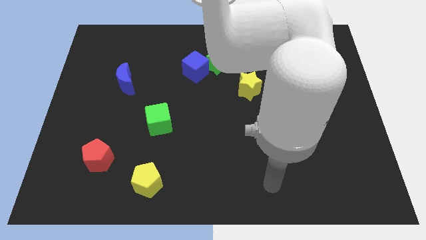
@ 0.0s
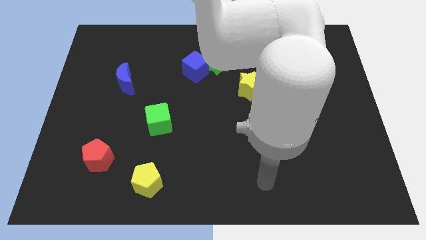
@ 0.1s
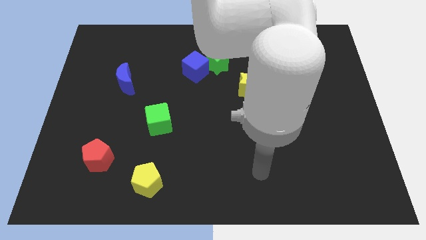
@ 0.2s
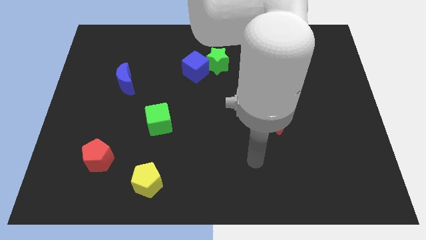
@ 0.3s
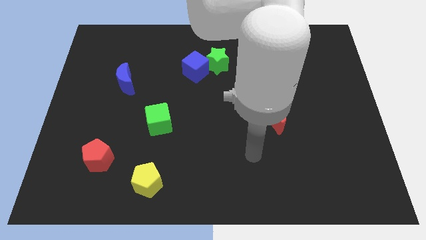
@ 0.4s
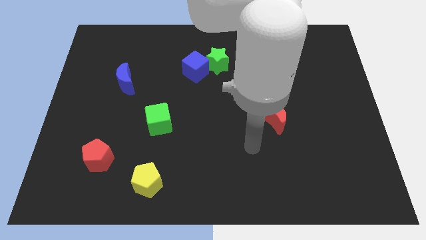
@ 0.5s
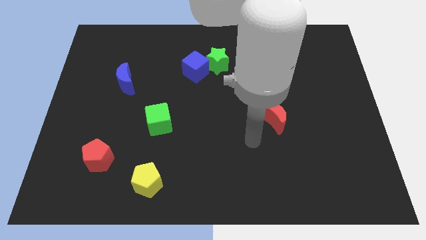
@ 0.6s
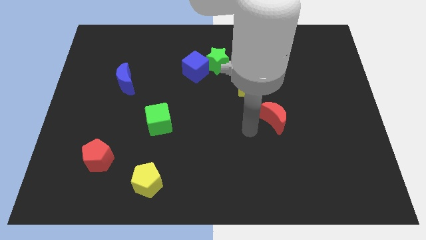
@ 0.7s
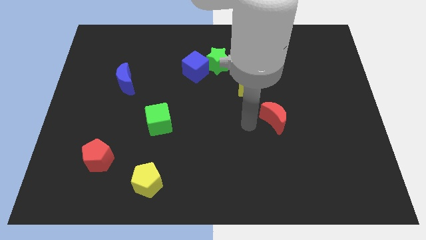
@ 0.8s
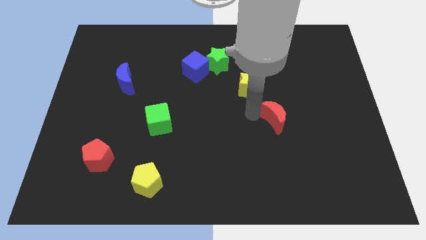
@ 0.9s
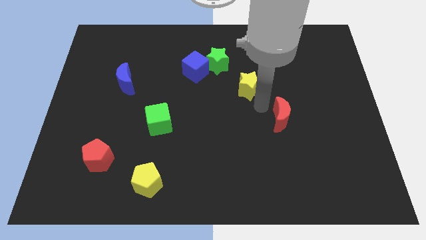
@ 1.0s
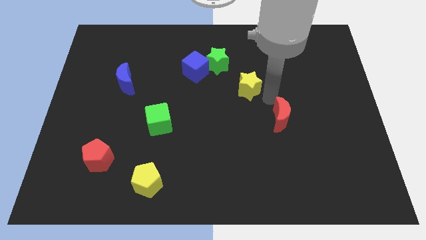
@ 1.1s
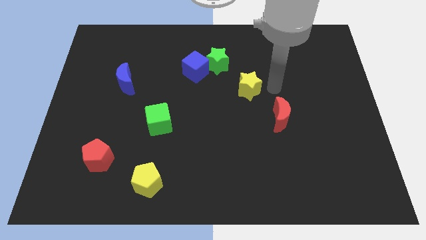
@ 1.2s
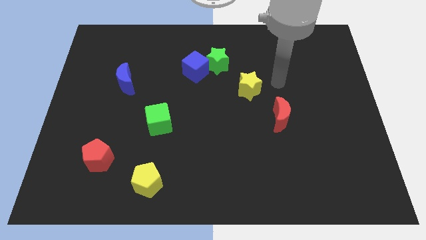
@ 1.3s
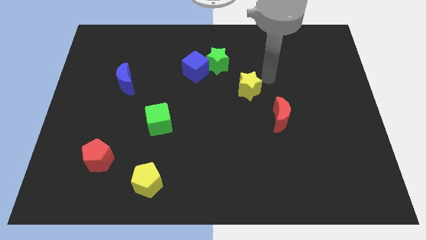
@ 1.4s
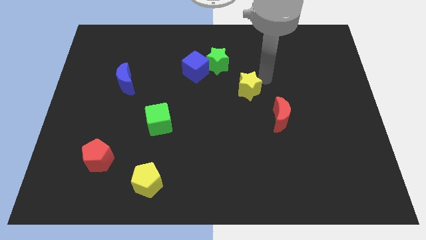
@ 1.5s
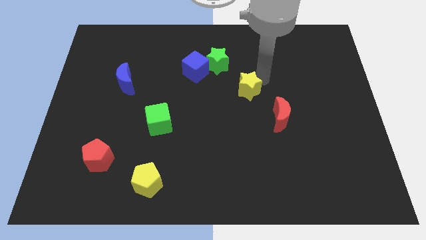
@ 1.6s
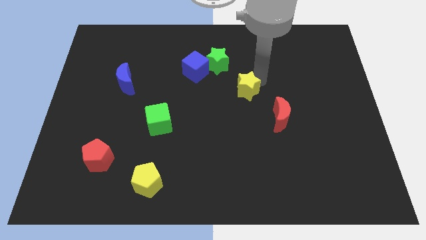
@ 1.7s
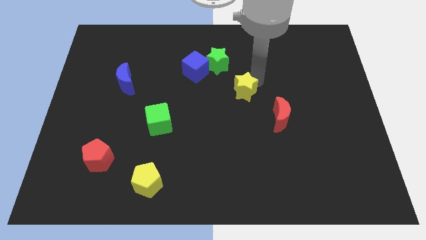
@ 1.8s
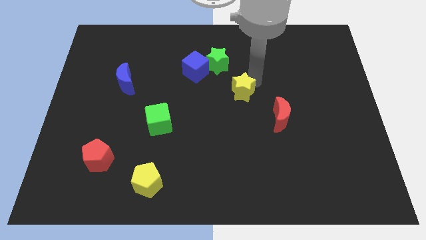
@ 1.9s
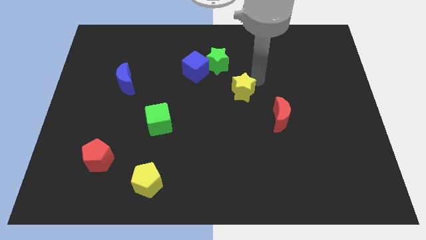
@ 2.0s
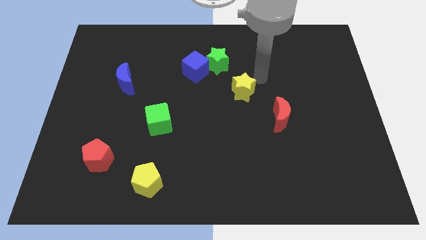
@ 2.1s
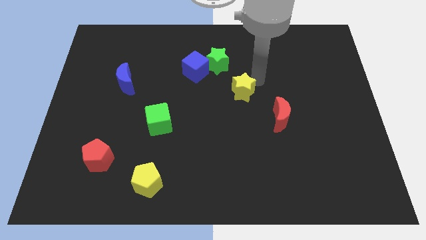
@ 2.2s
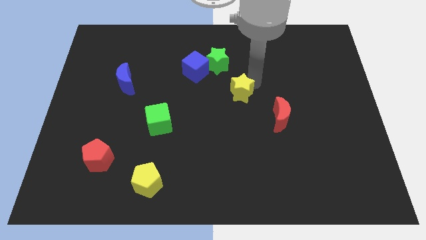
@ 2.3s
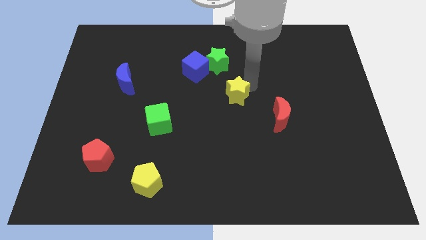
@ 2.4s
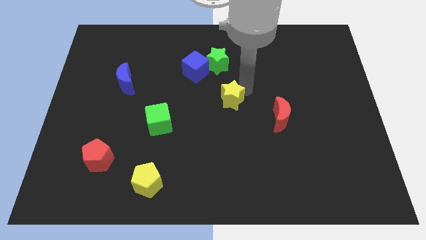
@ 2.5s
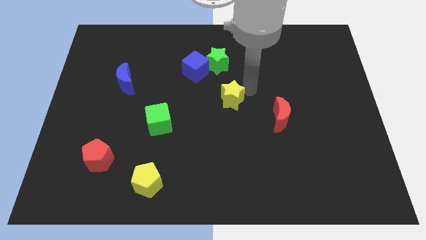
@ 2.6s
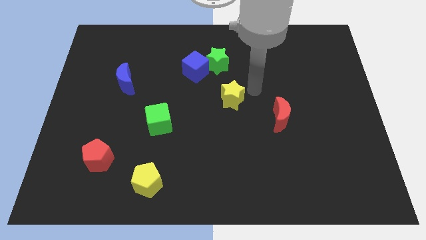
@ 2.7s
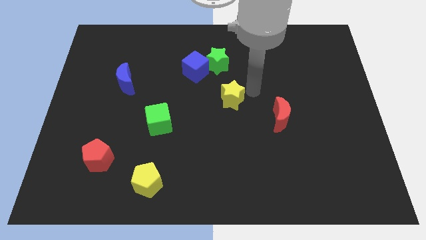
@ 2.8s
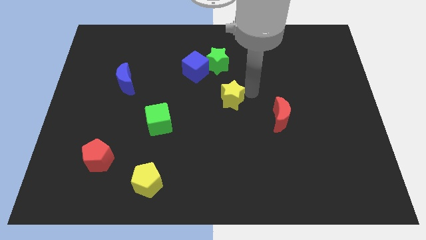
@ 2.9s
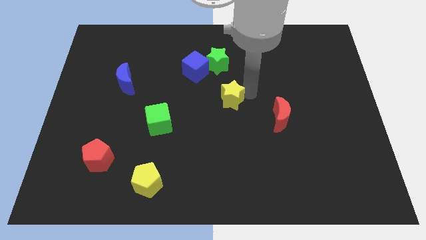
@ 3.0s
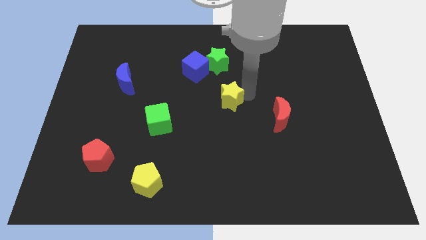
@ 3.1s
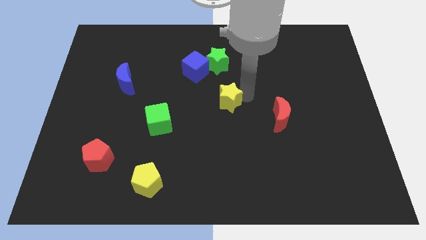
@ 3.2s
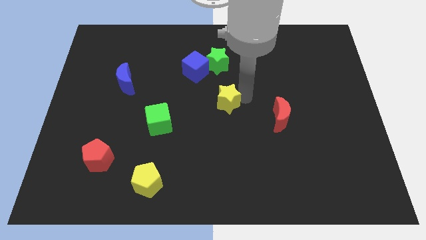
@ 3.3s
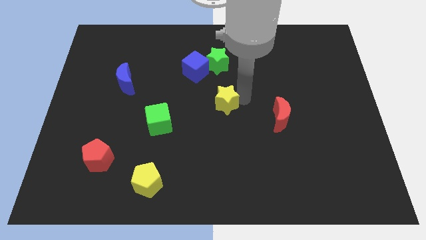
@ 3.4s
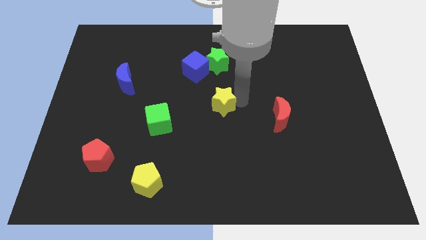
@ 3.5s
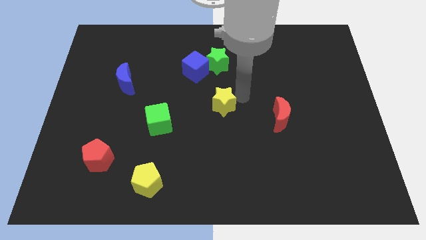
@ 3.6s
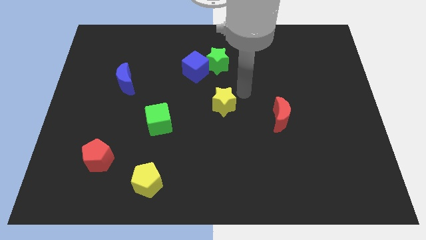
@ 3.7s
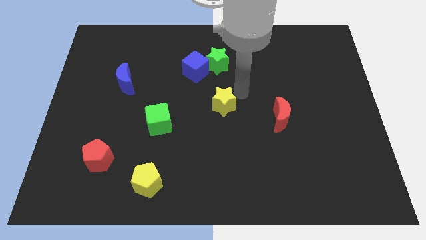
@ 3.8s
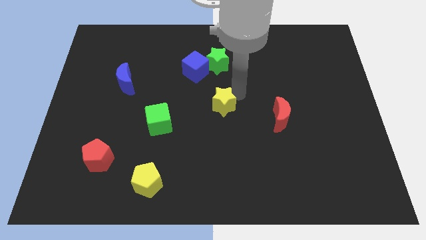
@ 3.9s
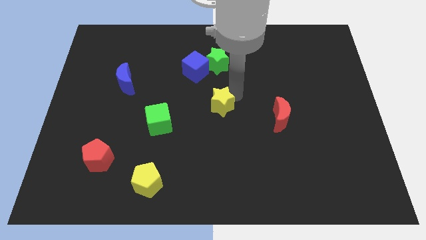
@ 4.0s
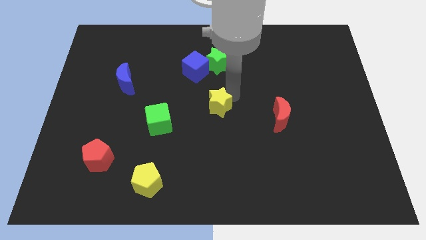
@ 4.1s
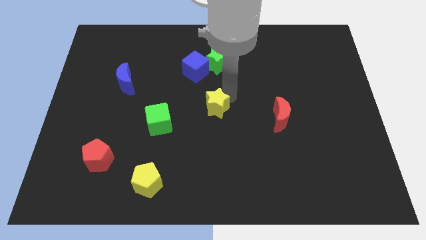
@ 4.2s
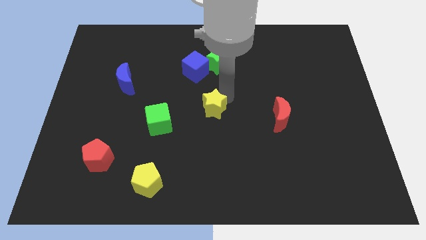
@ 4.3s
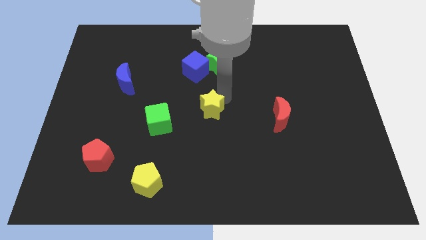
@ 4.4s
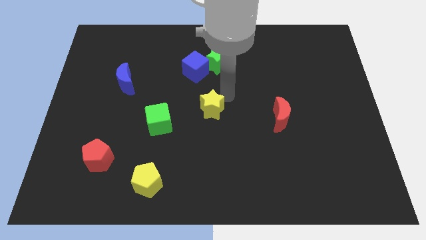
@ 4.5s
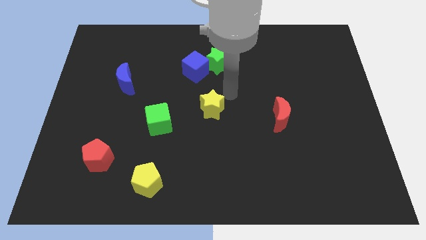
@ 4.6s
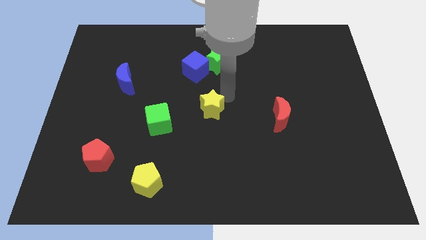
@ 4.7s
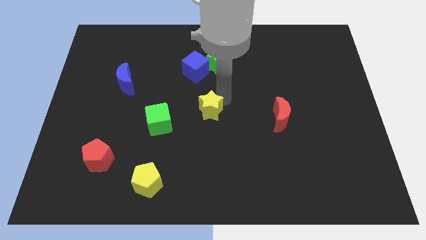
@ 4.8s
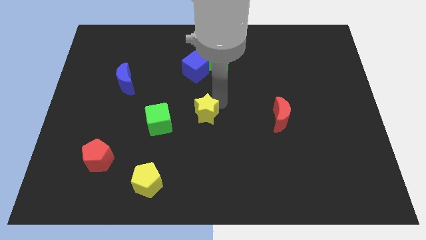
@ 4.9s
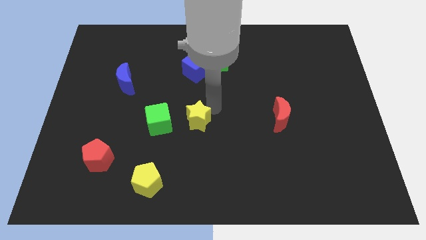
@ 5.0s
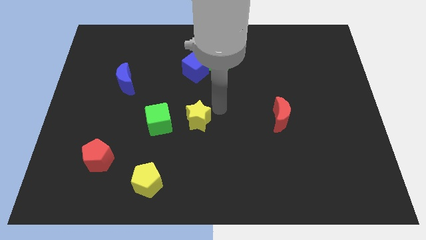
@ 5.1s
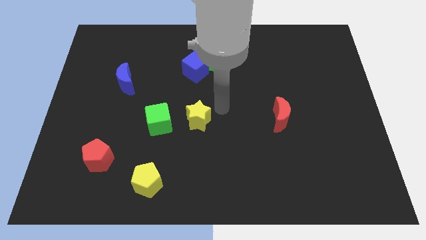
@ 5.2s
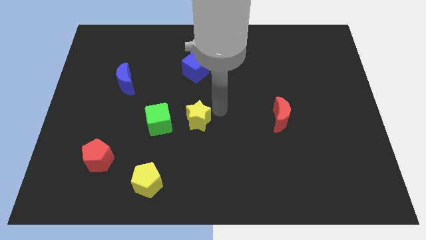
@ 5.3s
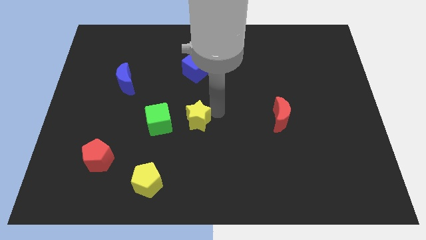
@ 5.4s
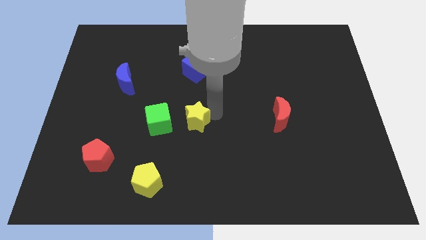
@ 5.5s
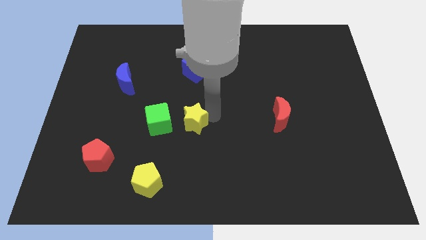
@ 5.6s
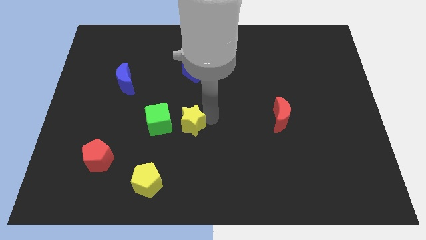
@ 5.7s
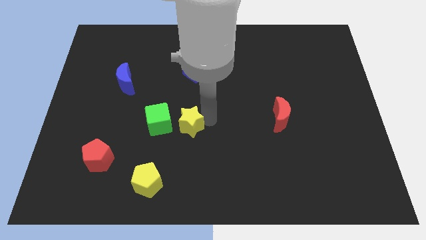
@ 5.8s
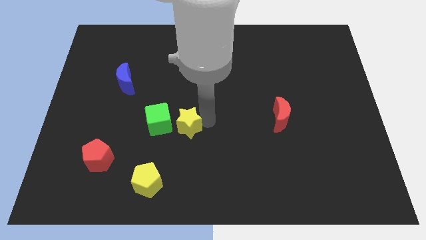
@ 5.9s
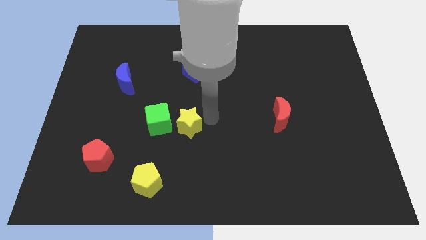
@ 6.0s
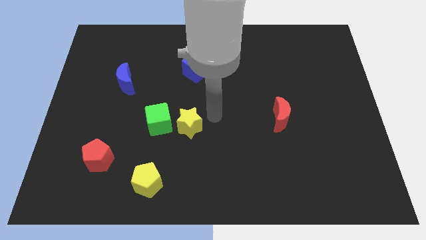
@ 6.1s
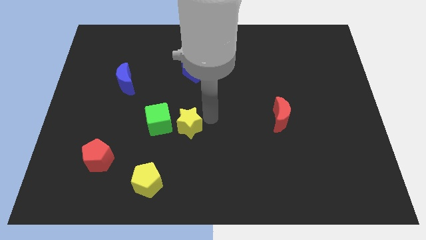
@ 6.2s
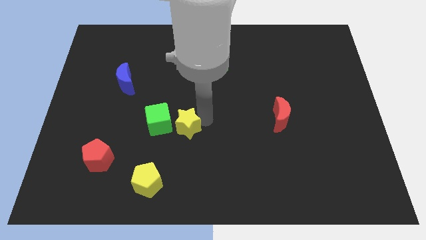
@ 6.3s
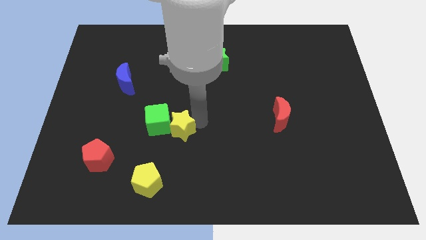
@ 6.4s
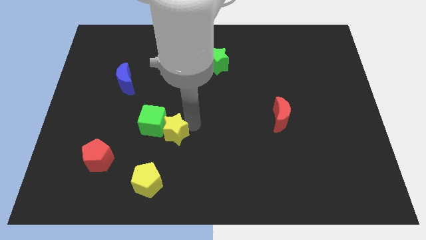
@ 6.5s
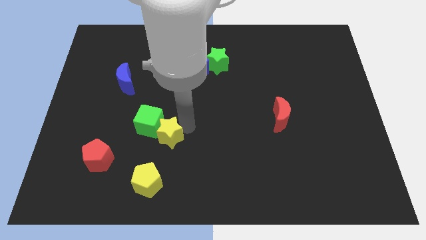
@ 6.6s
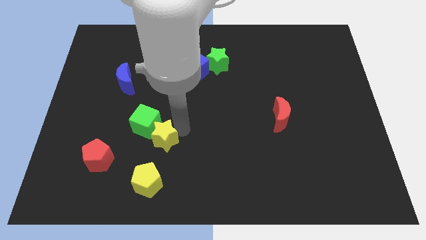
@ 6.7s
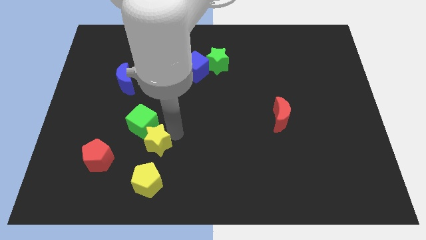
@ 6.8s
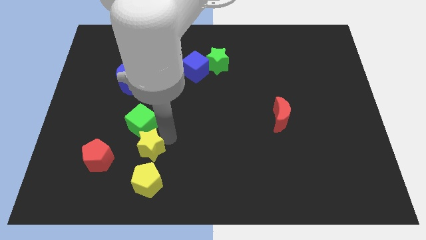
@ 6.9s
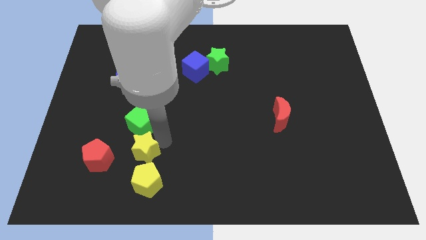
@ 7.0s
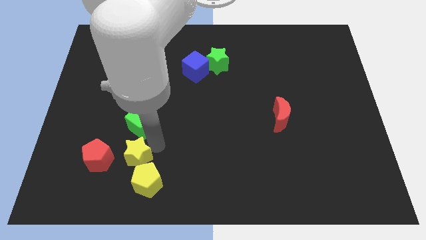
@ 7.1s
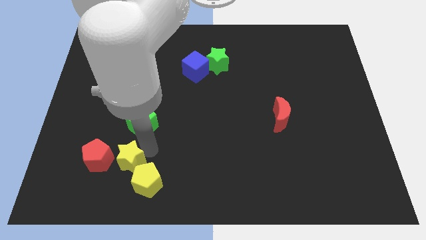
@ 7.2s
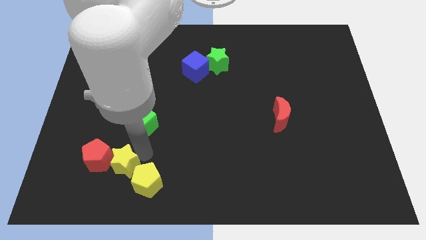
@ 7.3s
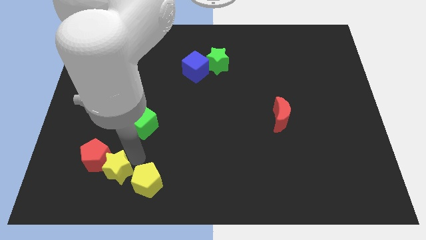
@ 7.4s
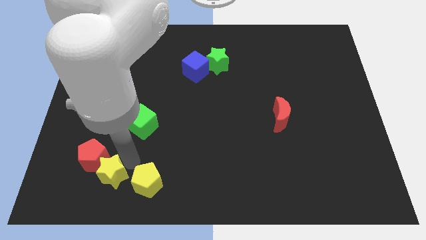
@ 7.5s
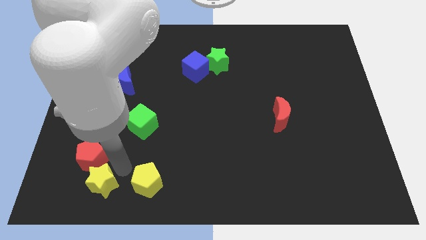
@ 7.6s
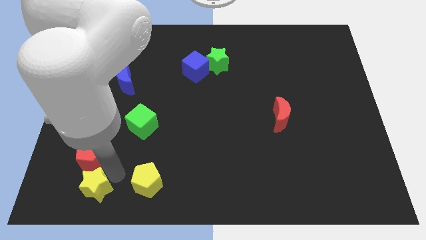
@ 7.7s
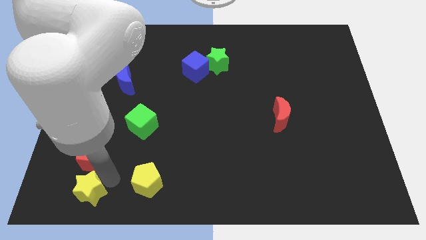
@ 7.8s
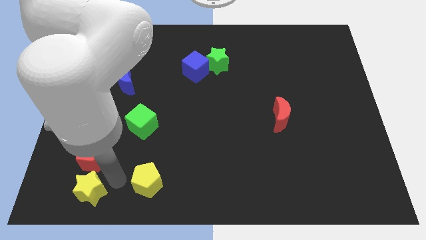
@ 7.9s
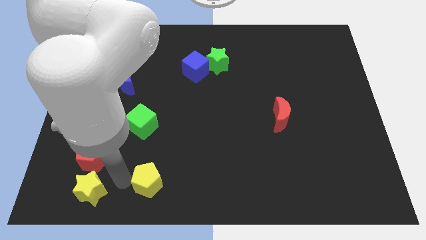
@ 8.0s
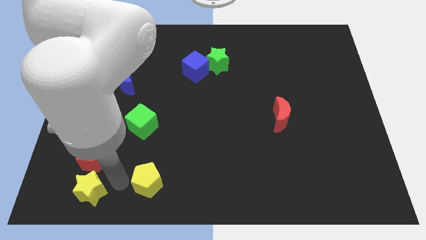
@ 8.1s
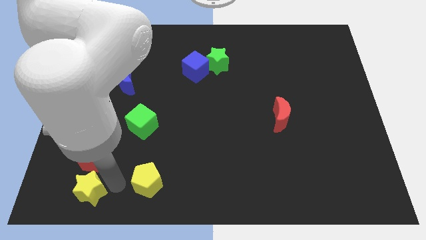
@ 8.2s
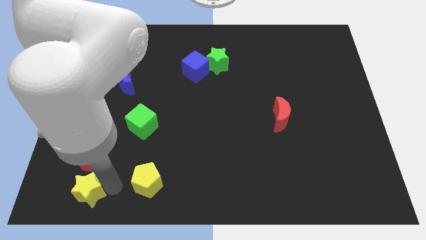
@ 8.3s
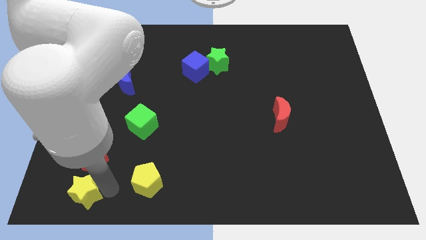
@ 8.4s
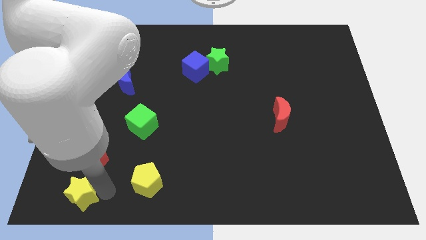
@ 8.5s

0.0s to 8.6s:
slide the yellow star to the bottom left
